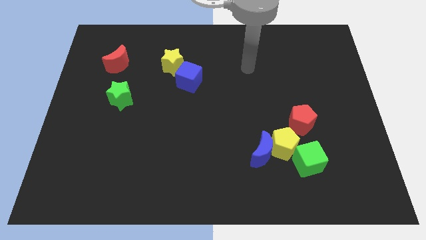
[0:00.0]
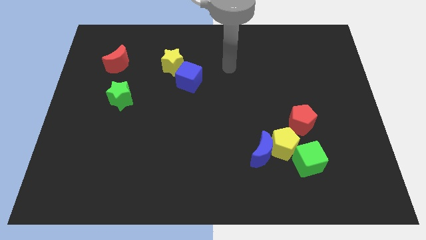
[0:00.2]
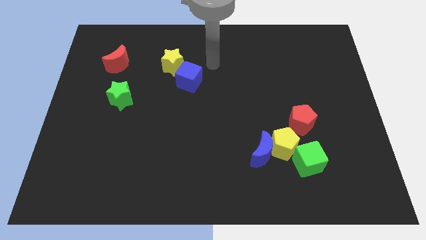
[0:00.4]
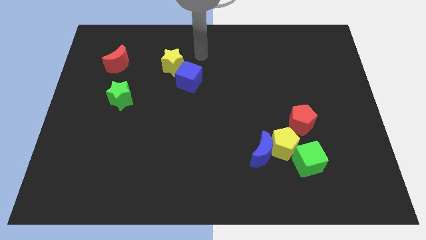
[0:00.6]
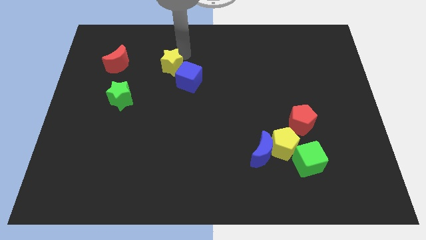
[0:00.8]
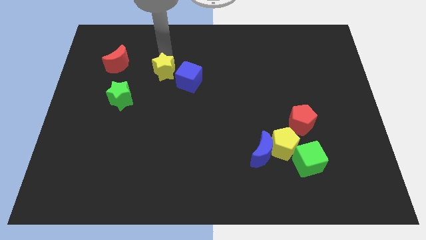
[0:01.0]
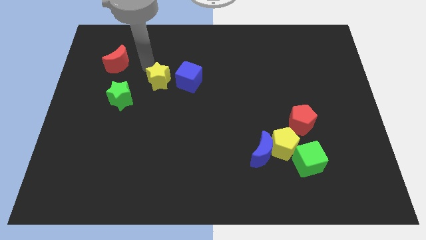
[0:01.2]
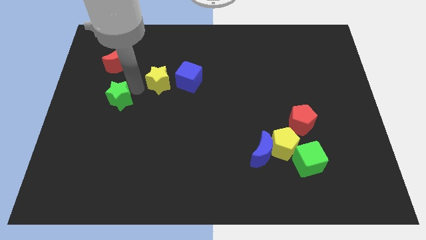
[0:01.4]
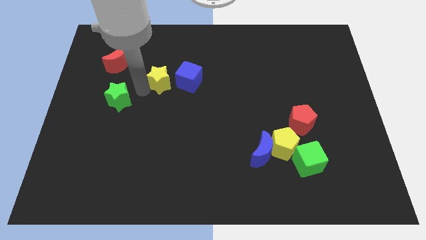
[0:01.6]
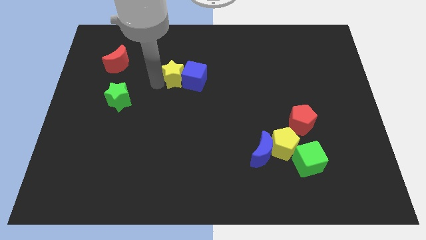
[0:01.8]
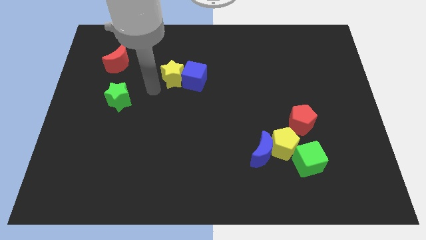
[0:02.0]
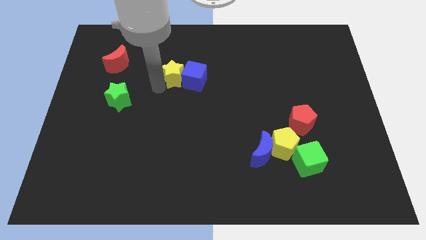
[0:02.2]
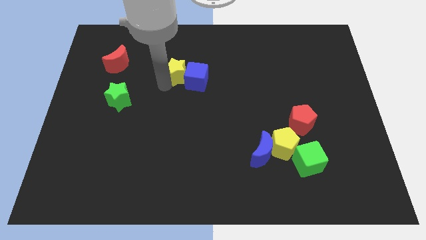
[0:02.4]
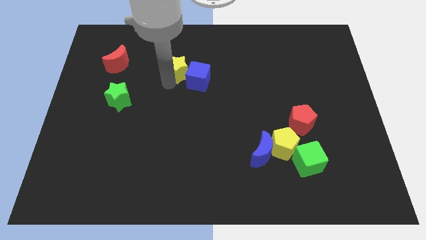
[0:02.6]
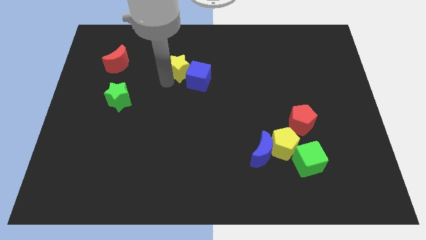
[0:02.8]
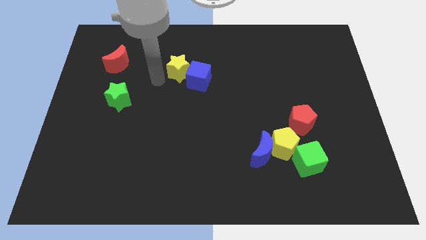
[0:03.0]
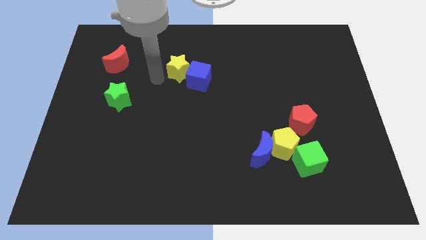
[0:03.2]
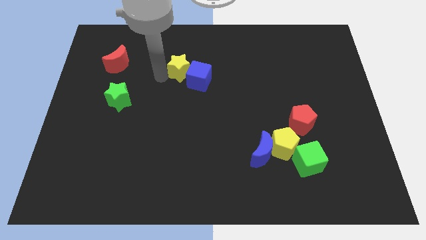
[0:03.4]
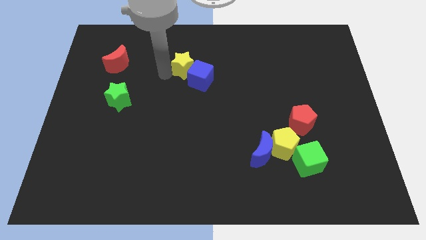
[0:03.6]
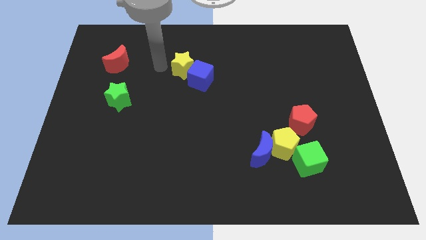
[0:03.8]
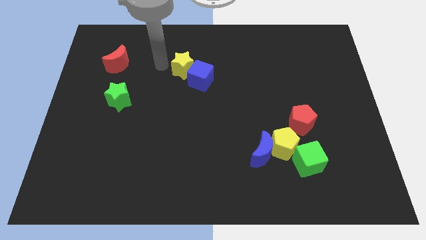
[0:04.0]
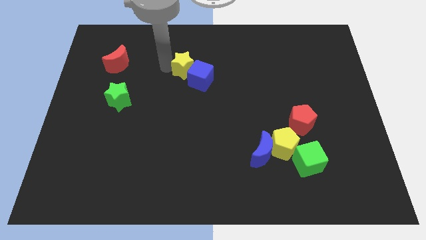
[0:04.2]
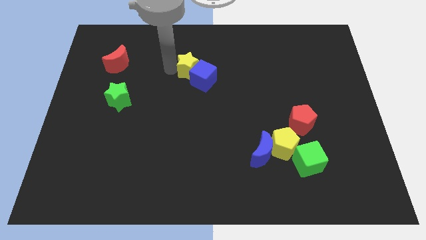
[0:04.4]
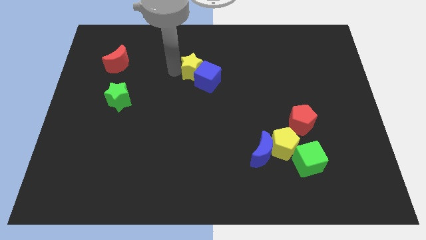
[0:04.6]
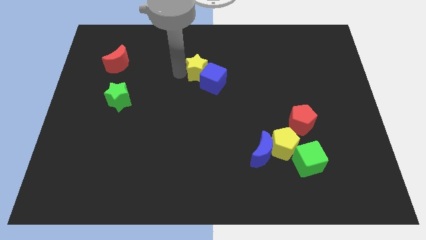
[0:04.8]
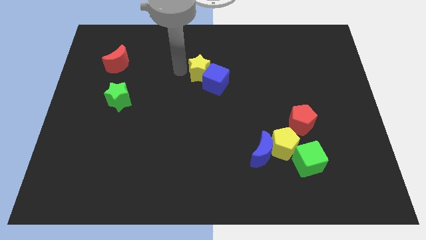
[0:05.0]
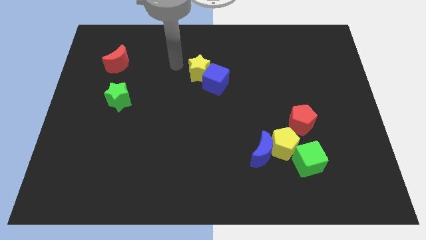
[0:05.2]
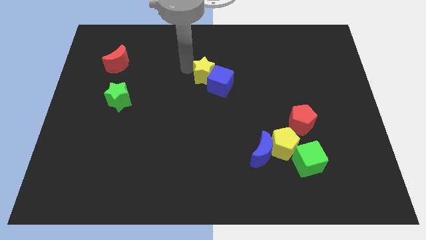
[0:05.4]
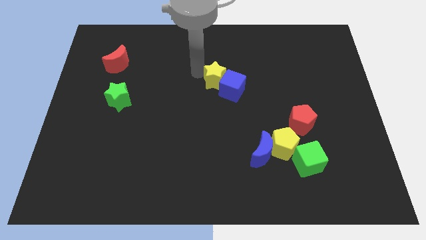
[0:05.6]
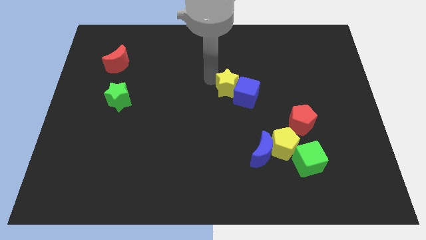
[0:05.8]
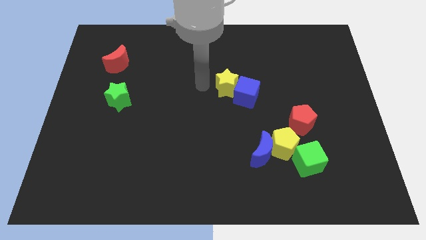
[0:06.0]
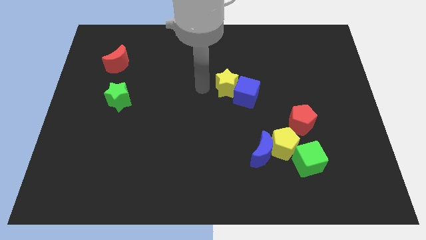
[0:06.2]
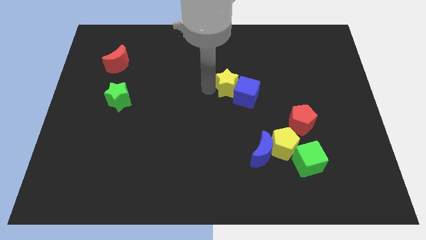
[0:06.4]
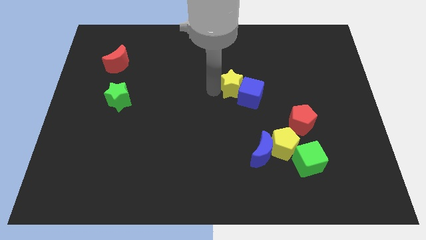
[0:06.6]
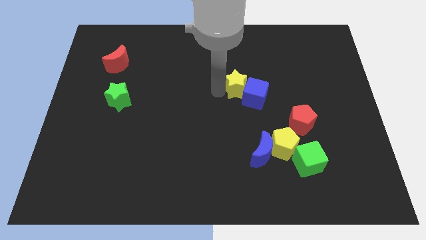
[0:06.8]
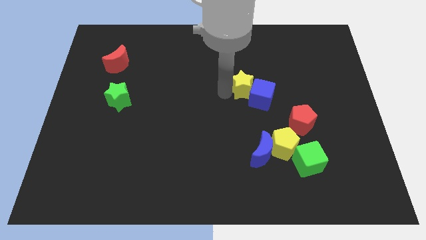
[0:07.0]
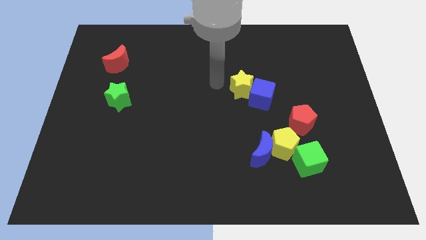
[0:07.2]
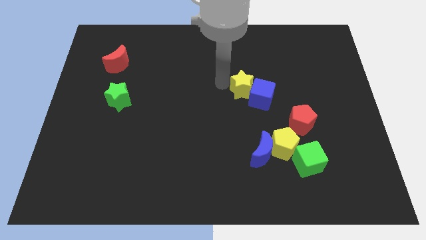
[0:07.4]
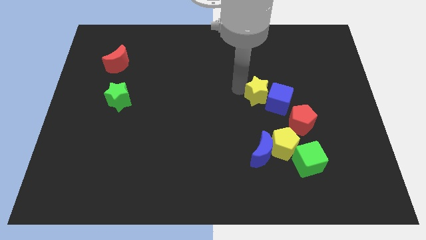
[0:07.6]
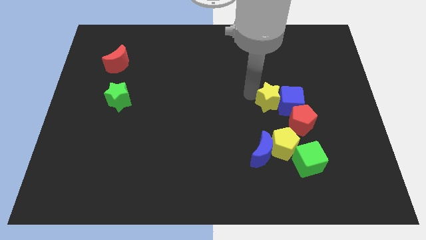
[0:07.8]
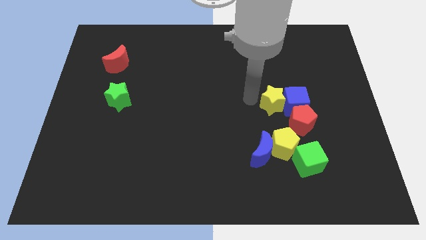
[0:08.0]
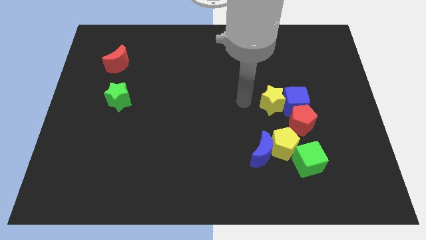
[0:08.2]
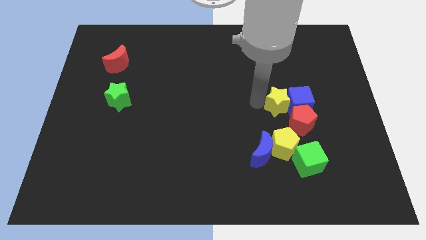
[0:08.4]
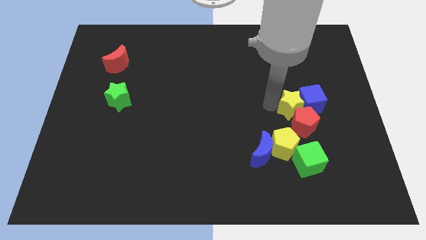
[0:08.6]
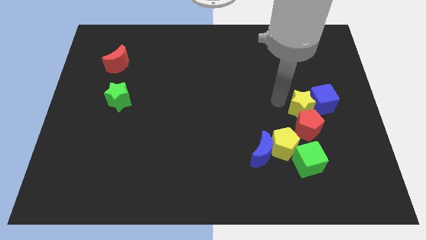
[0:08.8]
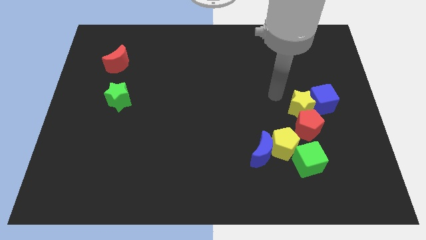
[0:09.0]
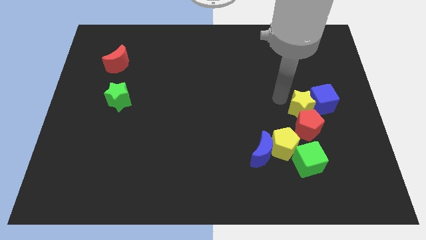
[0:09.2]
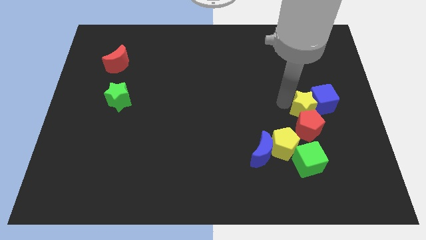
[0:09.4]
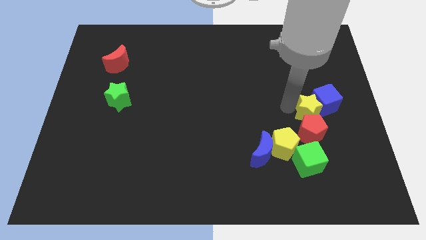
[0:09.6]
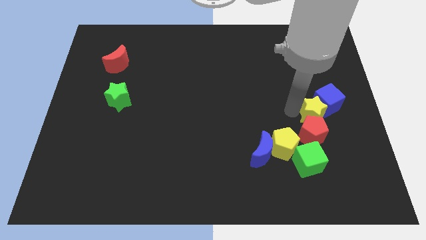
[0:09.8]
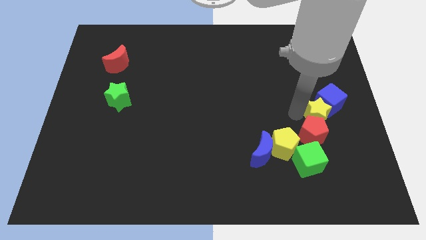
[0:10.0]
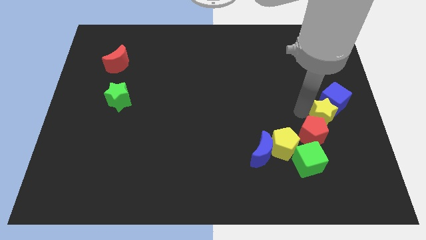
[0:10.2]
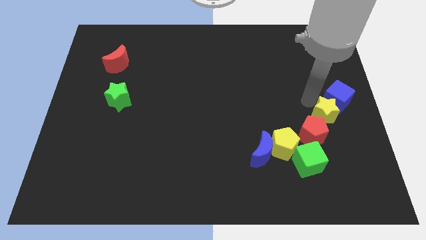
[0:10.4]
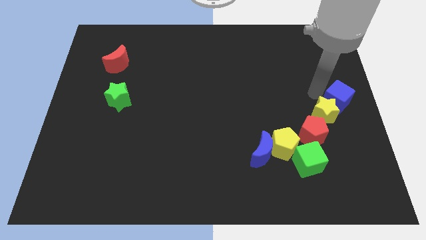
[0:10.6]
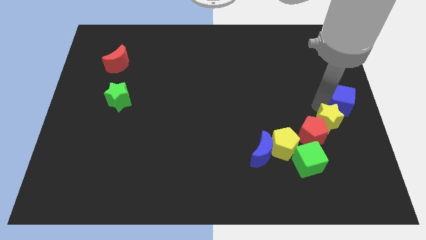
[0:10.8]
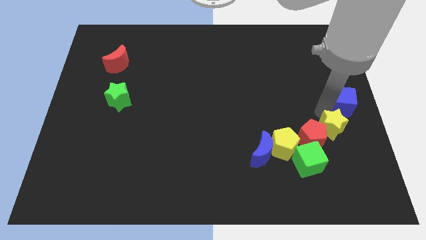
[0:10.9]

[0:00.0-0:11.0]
push the yellow star to the right side of the yellow pentagon

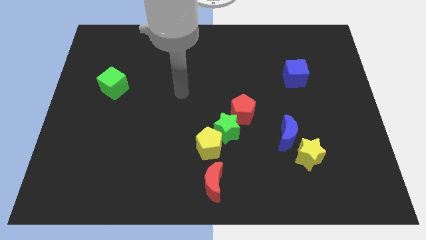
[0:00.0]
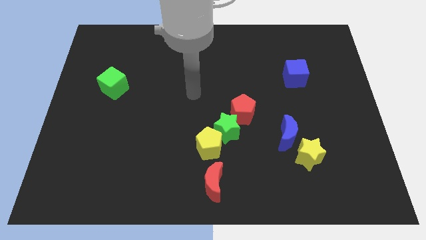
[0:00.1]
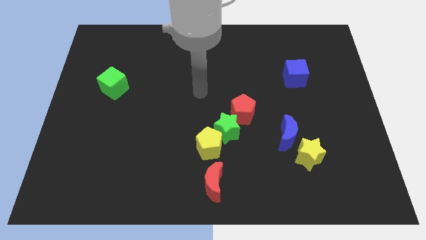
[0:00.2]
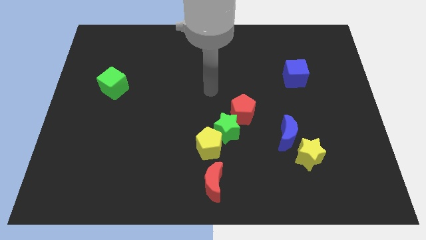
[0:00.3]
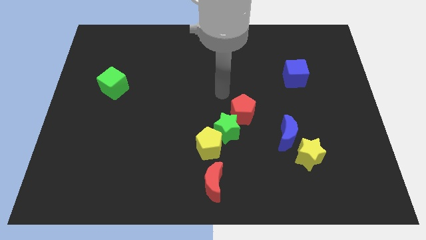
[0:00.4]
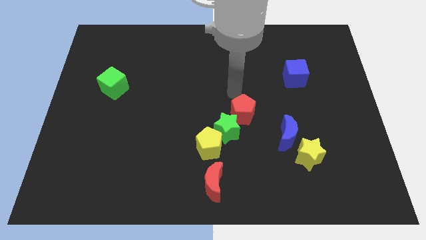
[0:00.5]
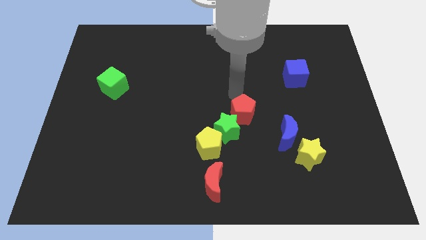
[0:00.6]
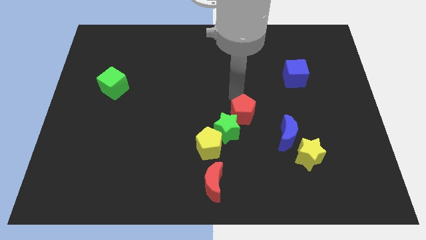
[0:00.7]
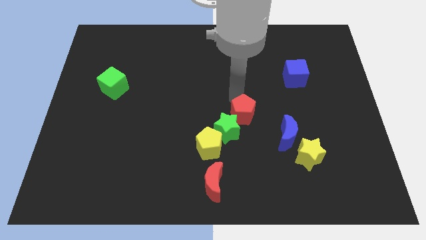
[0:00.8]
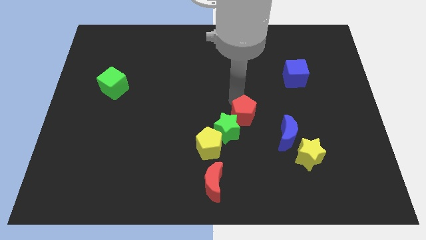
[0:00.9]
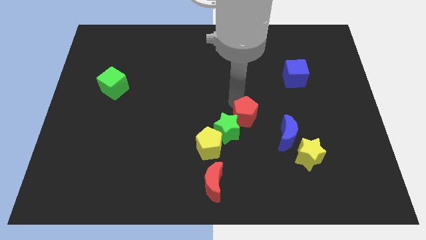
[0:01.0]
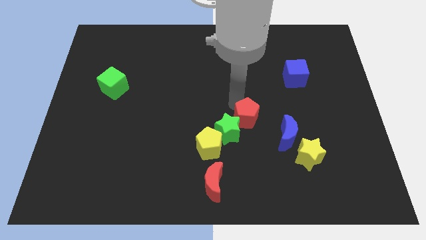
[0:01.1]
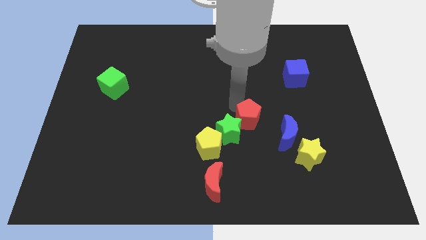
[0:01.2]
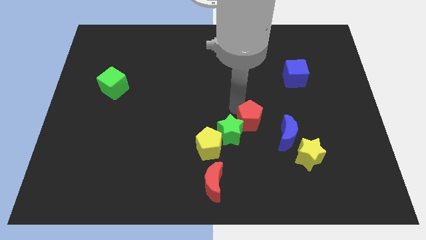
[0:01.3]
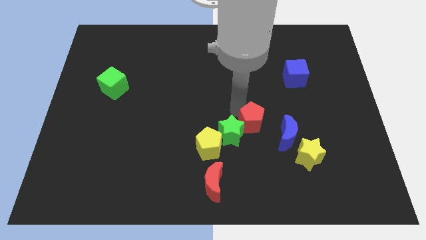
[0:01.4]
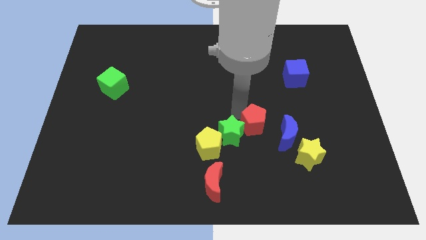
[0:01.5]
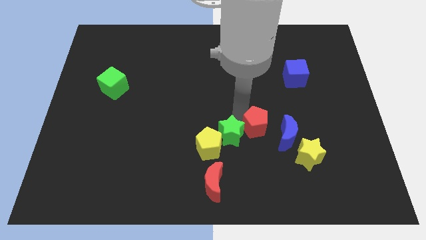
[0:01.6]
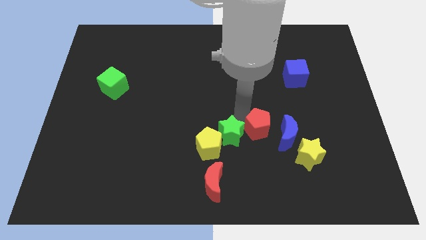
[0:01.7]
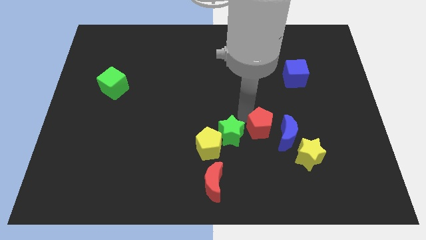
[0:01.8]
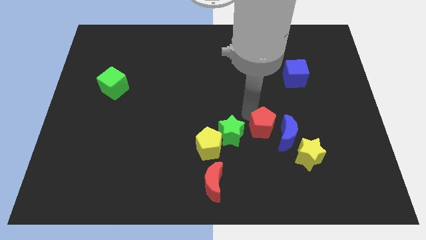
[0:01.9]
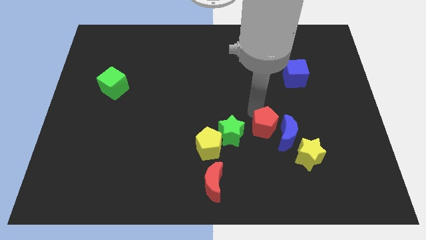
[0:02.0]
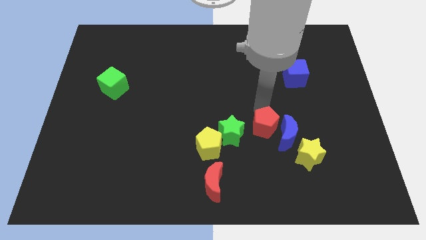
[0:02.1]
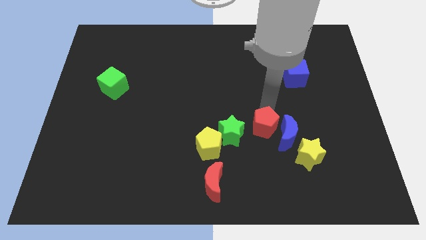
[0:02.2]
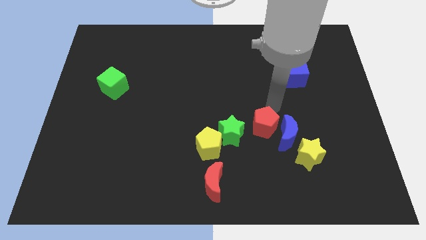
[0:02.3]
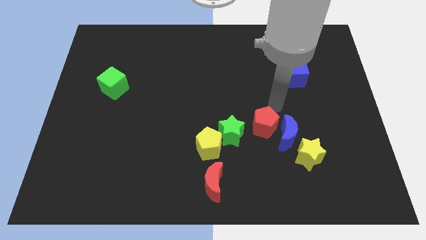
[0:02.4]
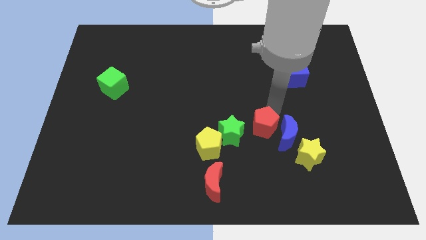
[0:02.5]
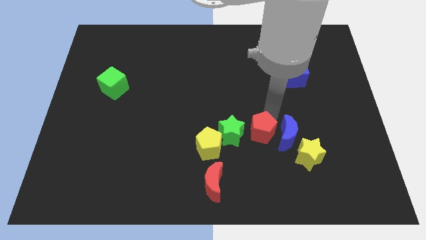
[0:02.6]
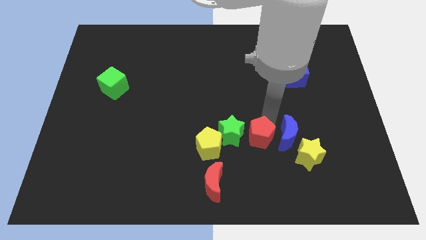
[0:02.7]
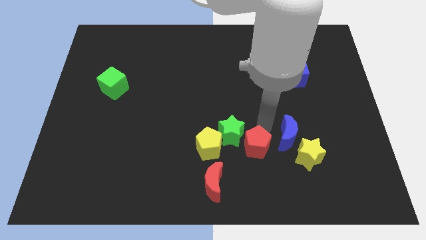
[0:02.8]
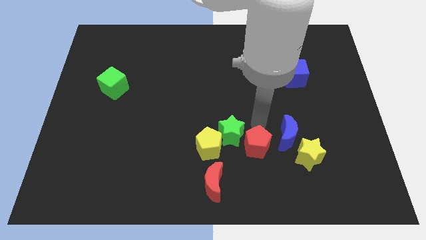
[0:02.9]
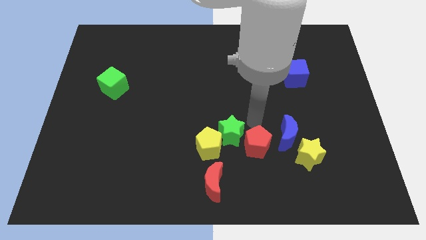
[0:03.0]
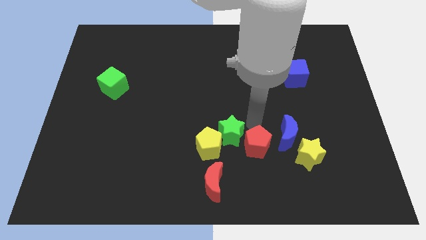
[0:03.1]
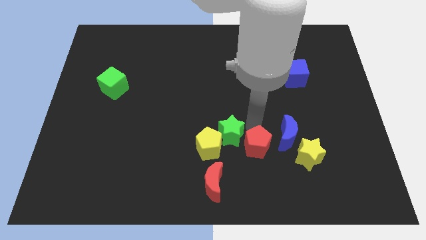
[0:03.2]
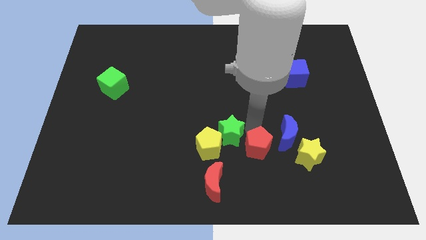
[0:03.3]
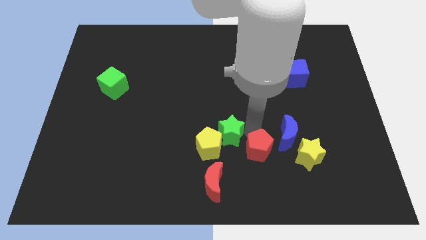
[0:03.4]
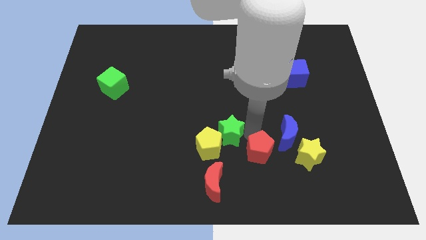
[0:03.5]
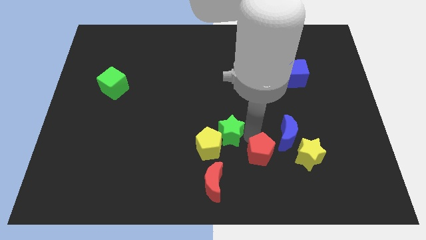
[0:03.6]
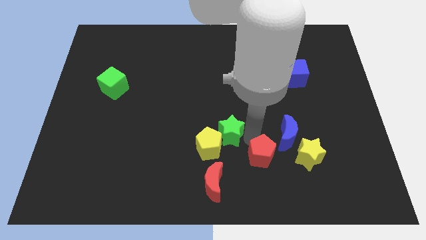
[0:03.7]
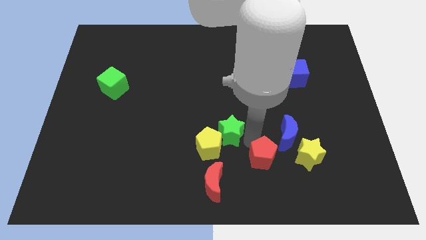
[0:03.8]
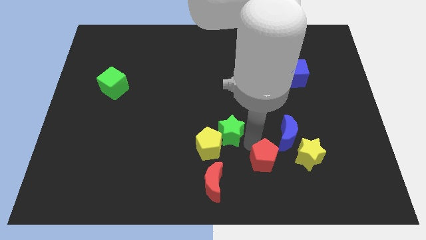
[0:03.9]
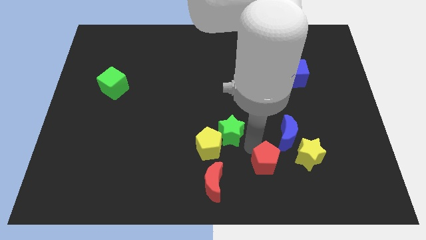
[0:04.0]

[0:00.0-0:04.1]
put the red pentagon to the right of the red moon
